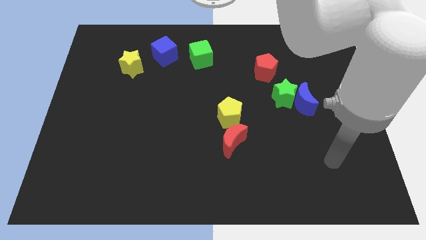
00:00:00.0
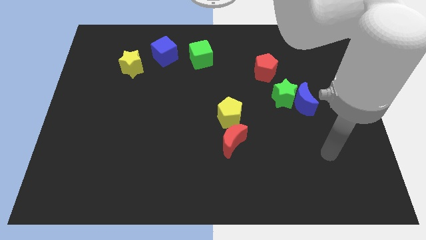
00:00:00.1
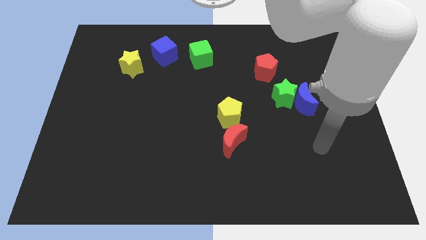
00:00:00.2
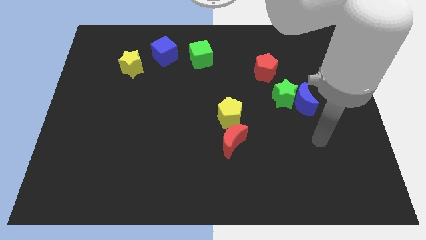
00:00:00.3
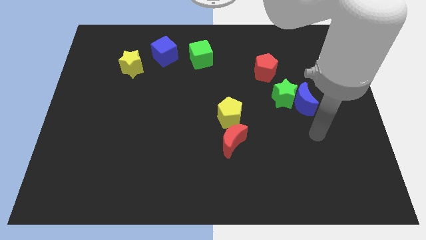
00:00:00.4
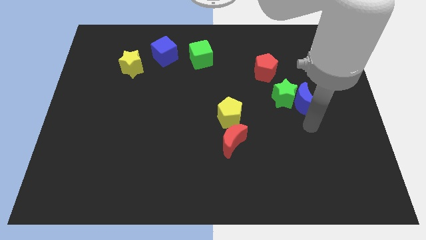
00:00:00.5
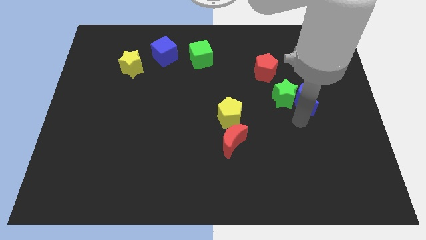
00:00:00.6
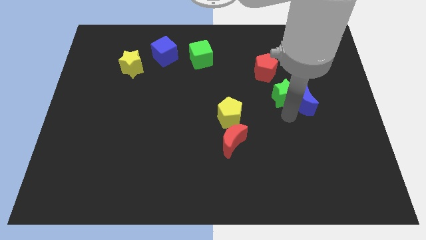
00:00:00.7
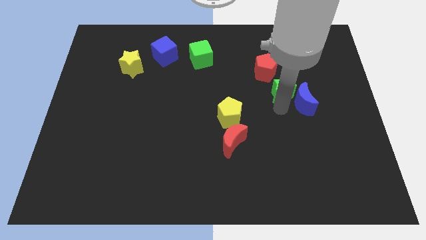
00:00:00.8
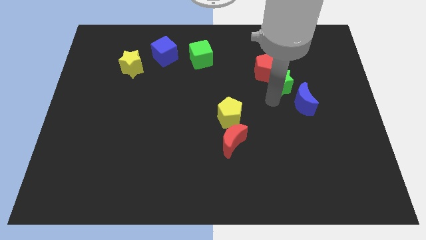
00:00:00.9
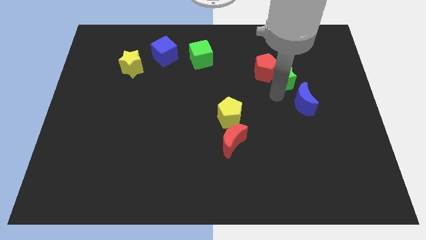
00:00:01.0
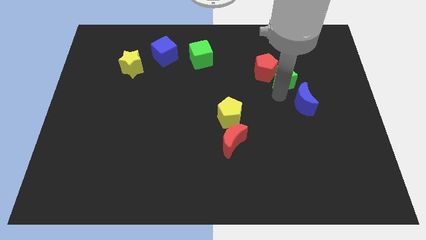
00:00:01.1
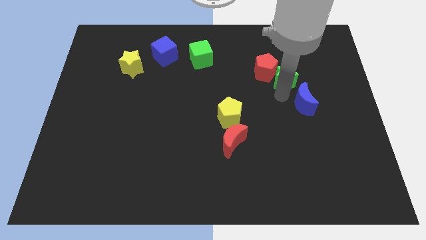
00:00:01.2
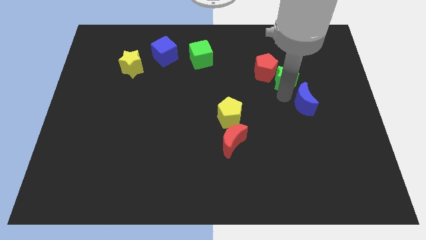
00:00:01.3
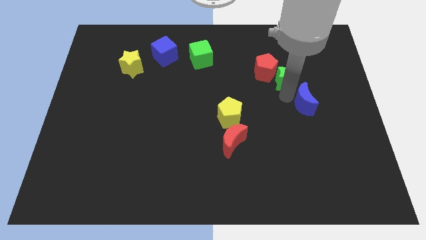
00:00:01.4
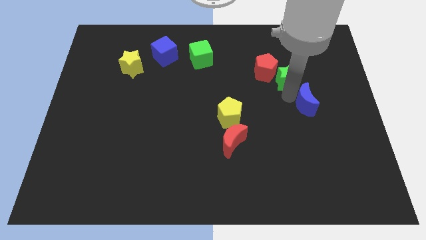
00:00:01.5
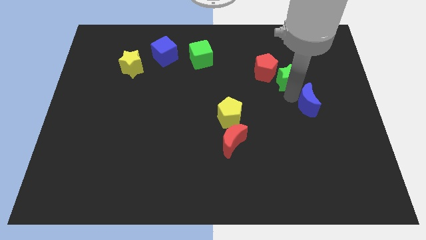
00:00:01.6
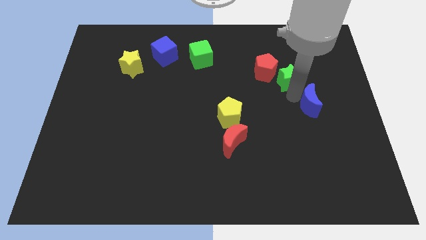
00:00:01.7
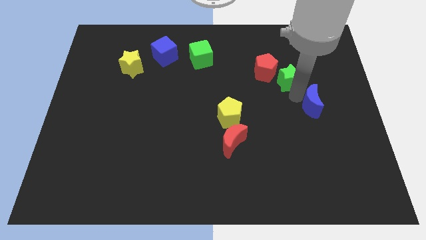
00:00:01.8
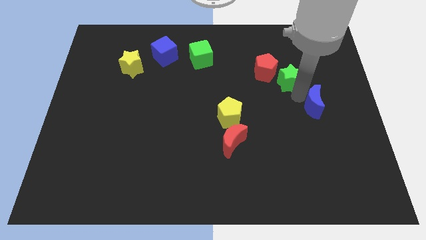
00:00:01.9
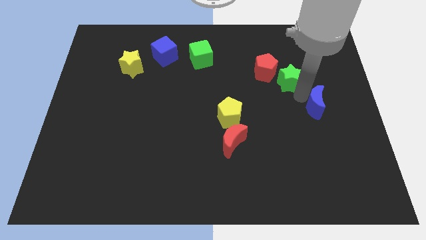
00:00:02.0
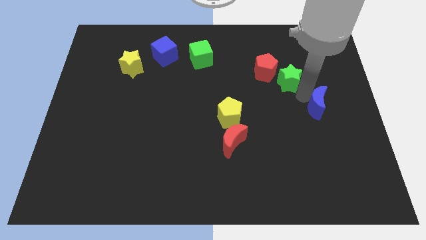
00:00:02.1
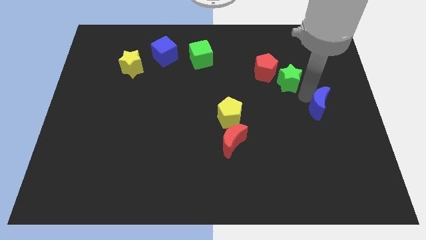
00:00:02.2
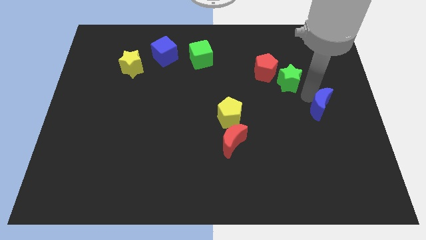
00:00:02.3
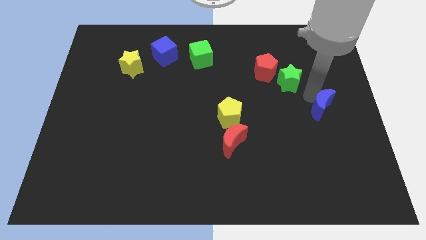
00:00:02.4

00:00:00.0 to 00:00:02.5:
move the blue moon away from the green star

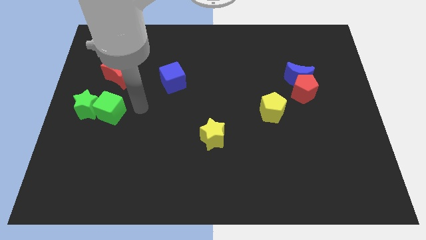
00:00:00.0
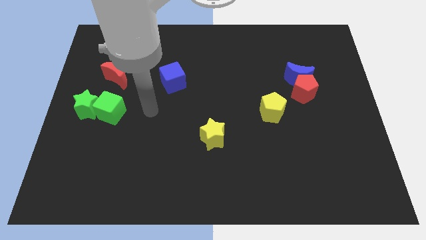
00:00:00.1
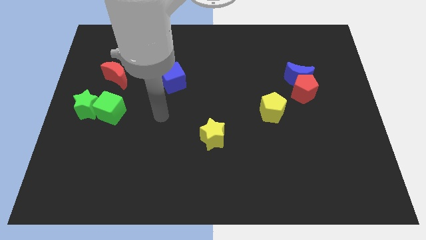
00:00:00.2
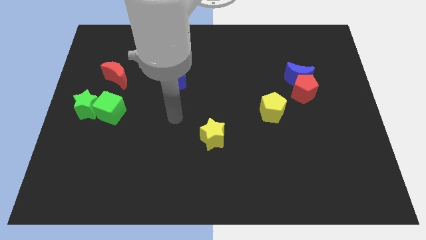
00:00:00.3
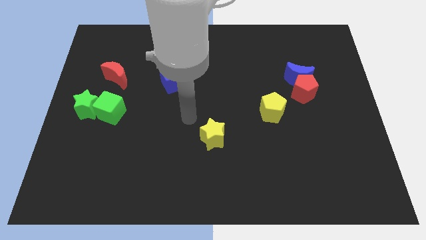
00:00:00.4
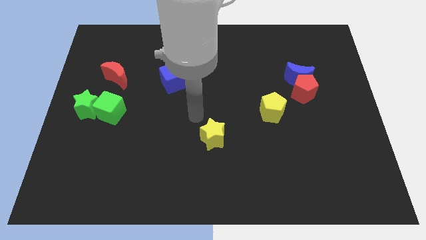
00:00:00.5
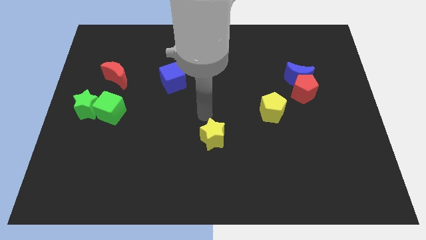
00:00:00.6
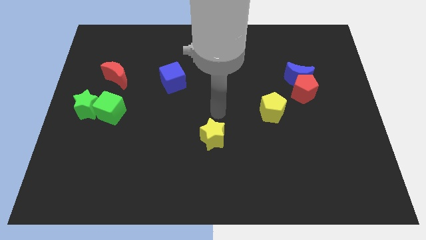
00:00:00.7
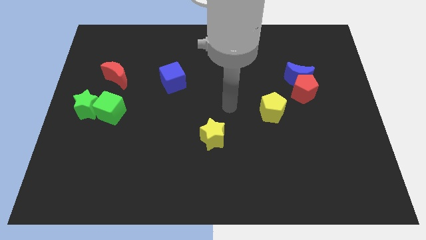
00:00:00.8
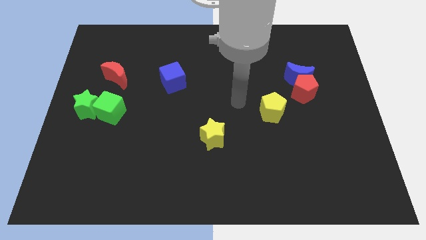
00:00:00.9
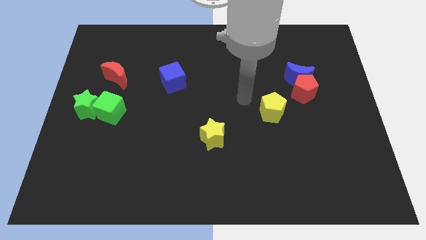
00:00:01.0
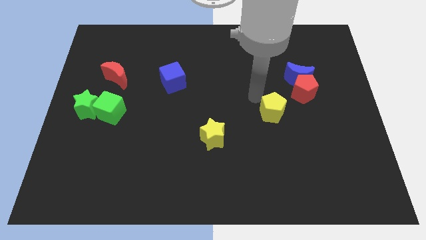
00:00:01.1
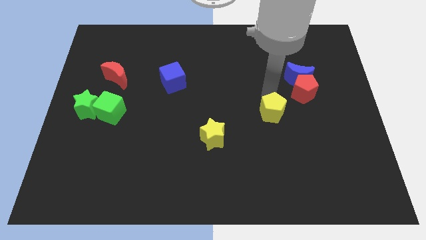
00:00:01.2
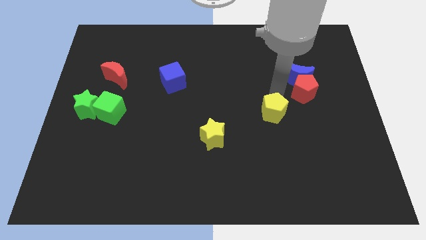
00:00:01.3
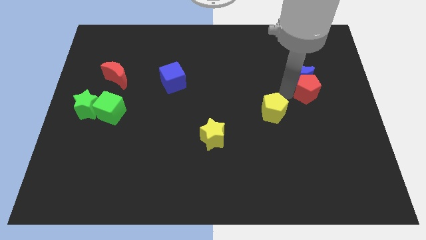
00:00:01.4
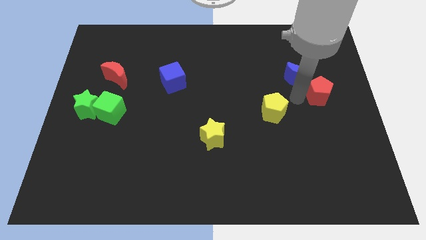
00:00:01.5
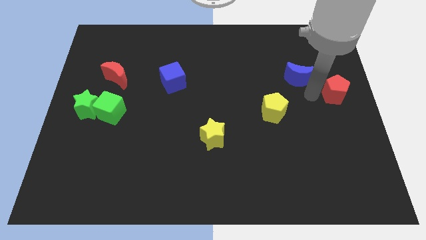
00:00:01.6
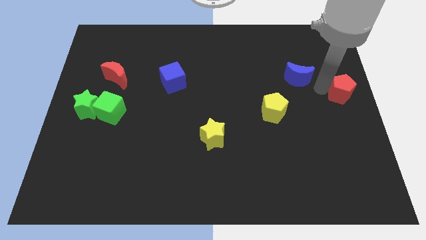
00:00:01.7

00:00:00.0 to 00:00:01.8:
separate the blue moon from the red pentagon

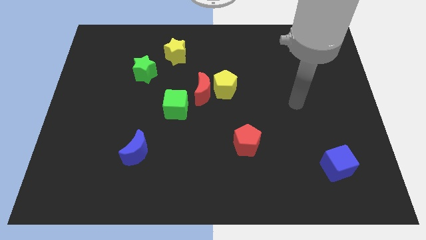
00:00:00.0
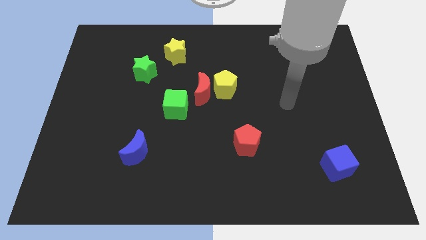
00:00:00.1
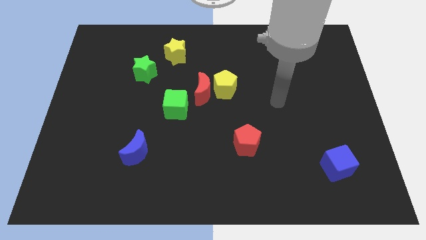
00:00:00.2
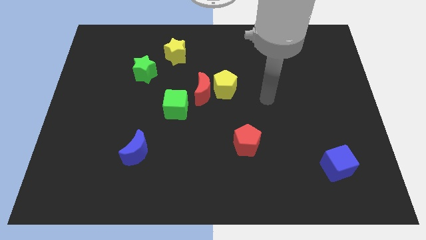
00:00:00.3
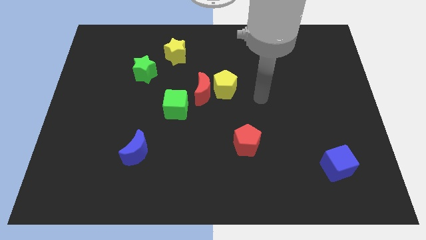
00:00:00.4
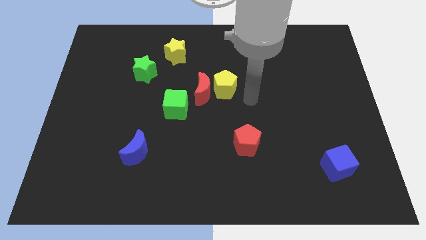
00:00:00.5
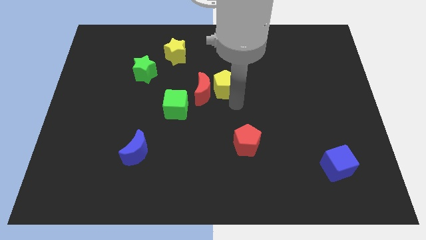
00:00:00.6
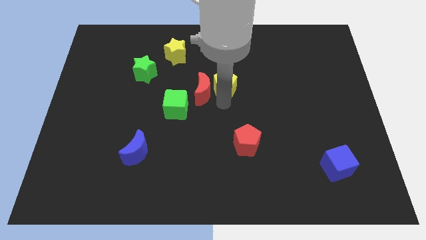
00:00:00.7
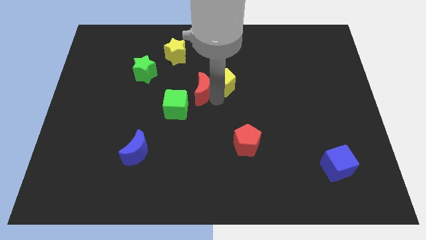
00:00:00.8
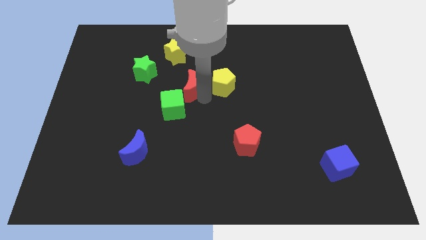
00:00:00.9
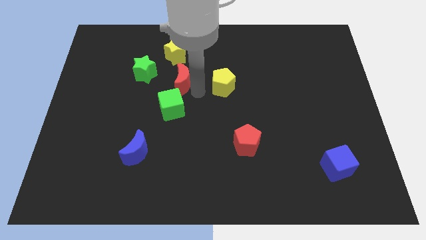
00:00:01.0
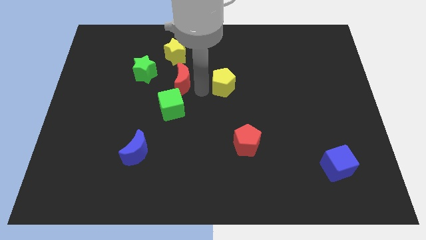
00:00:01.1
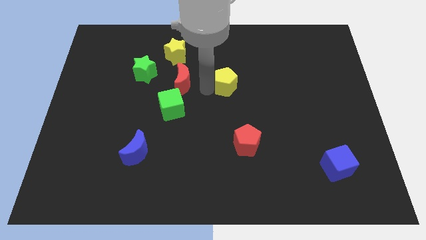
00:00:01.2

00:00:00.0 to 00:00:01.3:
move the yellow pentagon away from the red moon

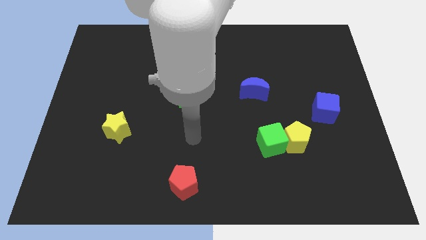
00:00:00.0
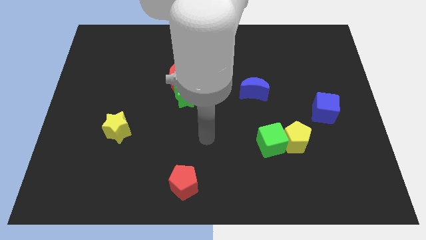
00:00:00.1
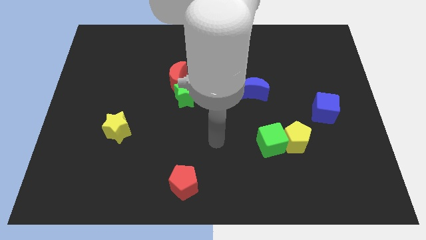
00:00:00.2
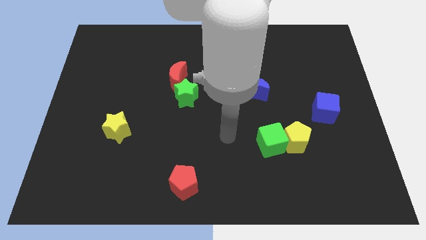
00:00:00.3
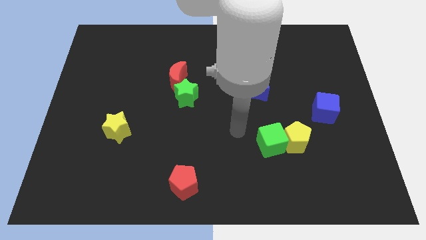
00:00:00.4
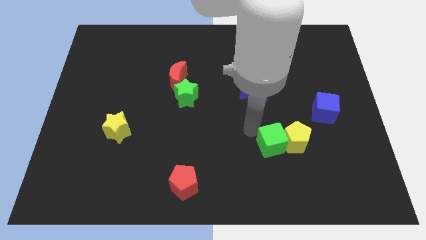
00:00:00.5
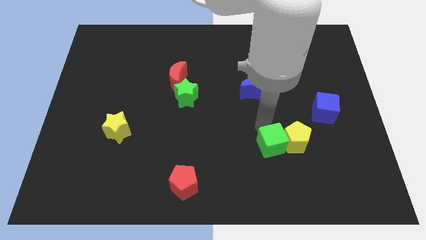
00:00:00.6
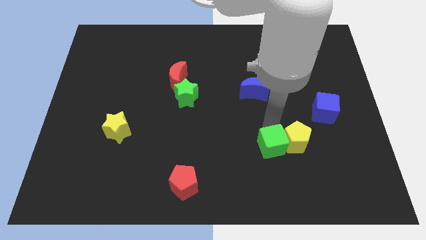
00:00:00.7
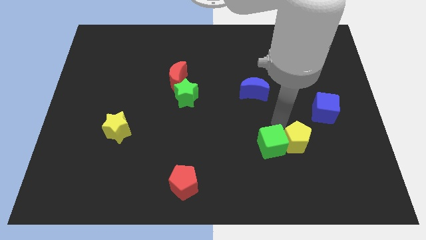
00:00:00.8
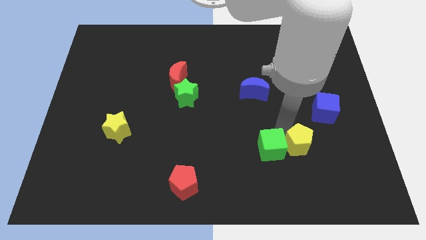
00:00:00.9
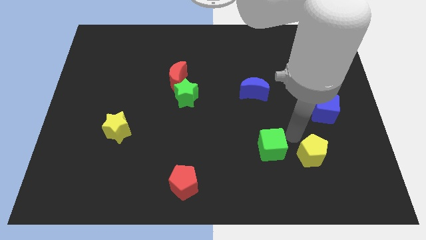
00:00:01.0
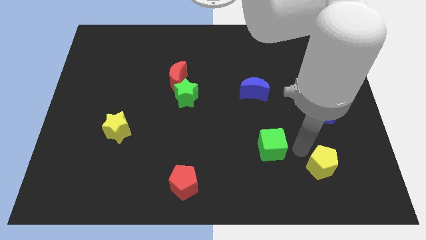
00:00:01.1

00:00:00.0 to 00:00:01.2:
pull the green cube apart from the yellow pentagon

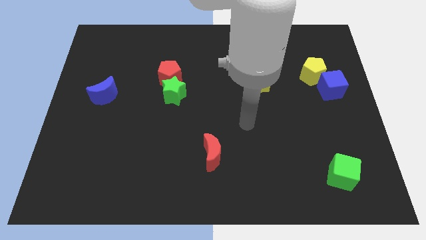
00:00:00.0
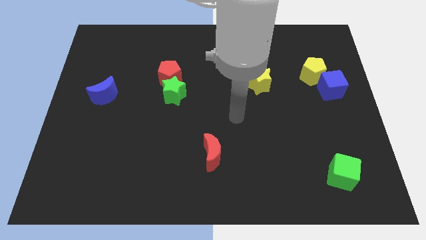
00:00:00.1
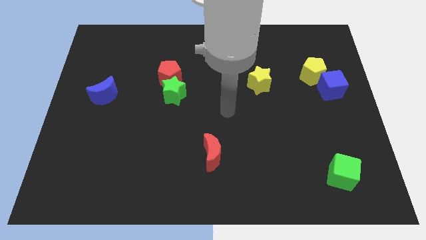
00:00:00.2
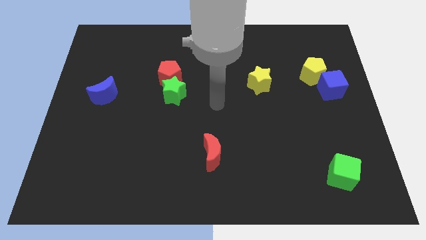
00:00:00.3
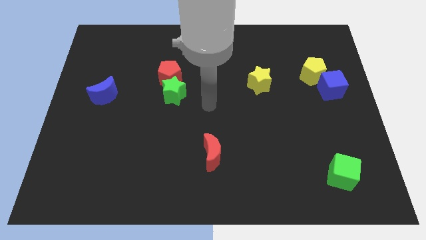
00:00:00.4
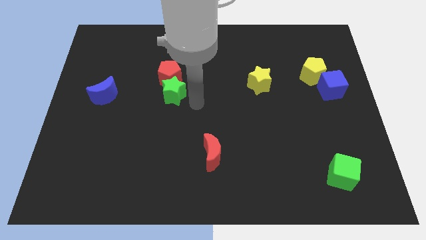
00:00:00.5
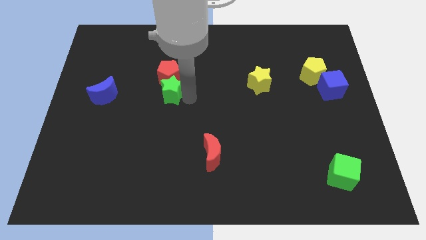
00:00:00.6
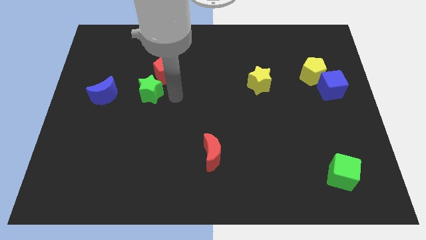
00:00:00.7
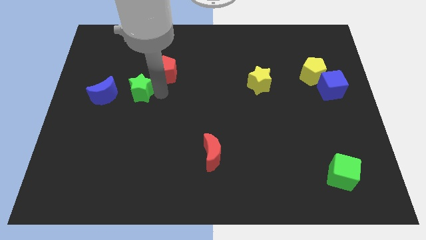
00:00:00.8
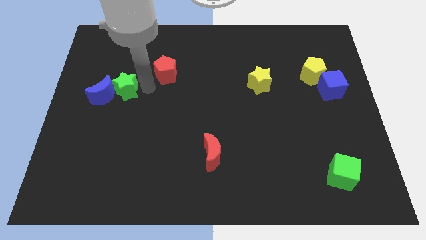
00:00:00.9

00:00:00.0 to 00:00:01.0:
move the red pentagon away from the green star

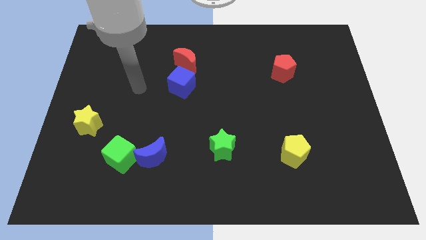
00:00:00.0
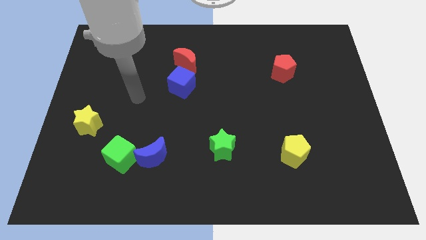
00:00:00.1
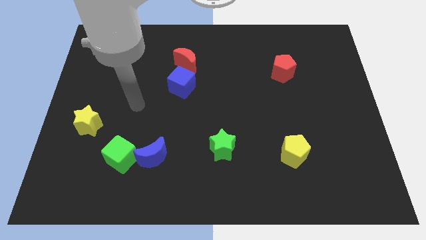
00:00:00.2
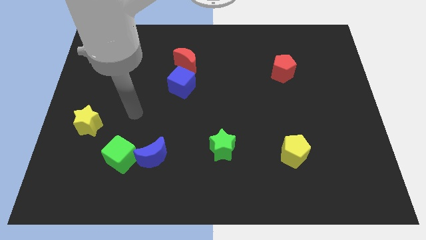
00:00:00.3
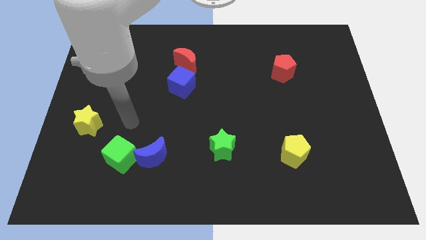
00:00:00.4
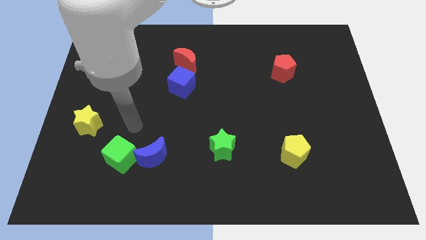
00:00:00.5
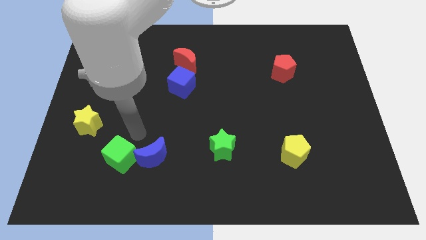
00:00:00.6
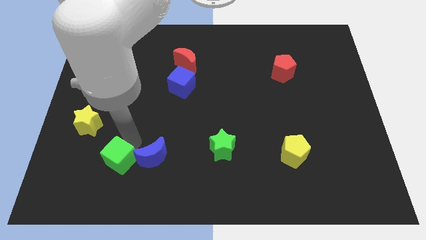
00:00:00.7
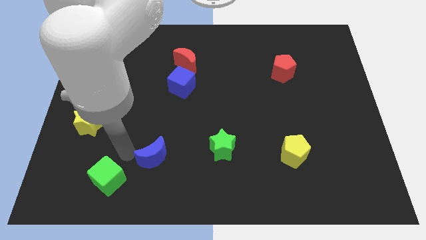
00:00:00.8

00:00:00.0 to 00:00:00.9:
separate the blue moon from the green cube

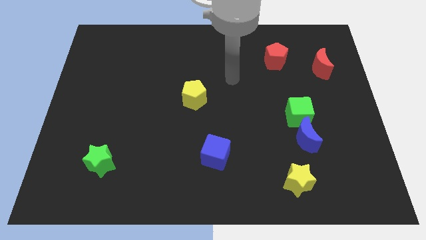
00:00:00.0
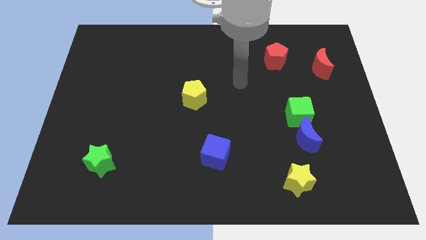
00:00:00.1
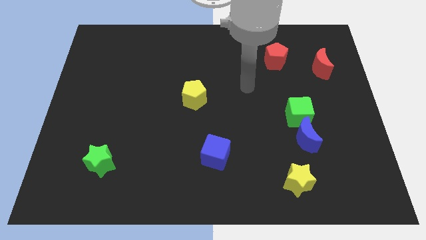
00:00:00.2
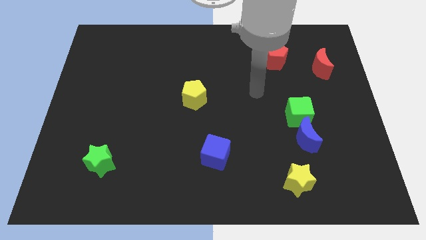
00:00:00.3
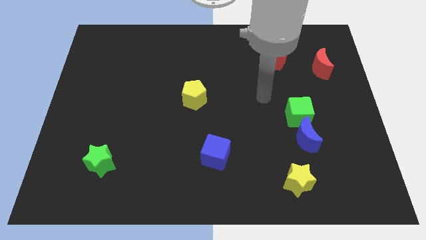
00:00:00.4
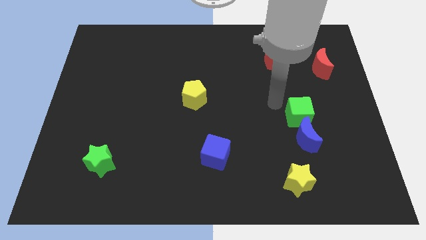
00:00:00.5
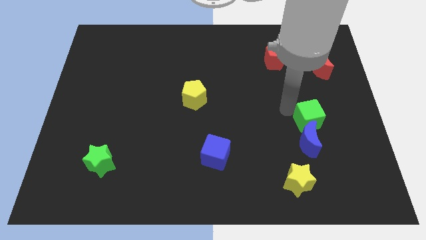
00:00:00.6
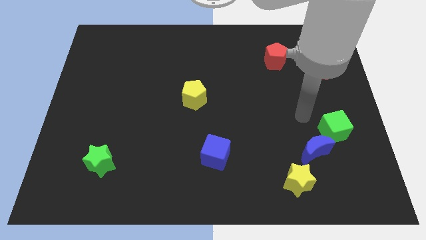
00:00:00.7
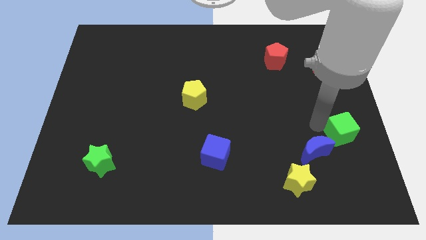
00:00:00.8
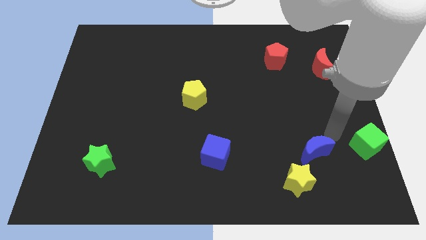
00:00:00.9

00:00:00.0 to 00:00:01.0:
pull the blue moon apart from the green cube
